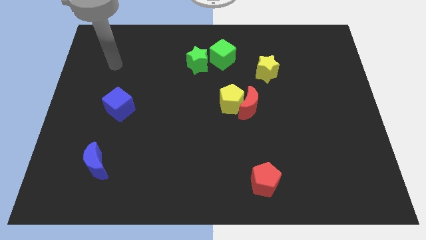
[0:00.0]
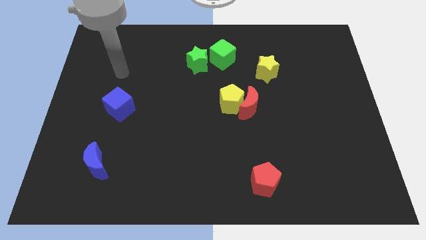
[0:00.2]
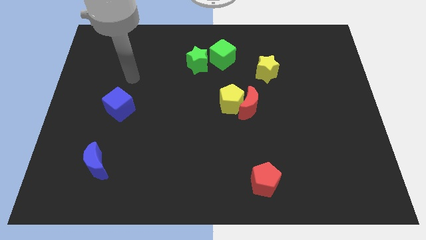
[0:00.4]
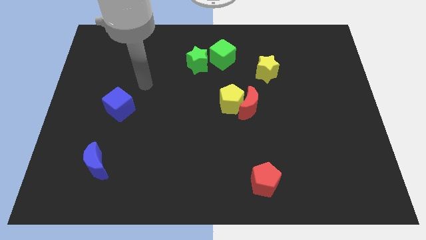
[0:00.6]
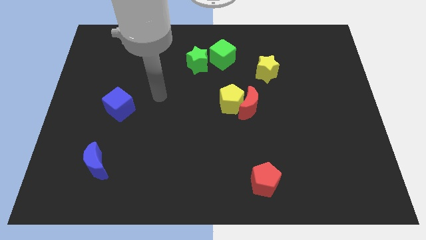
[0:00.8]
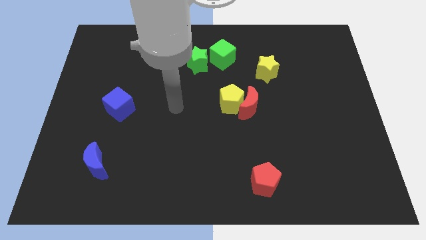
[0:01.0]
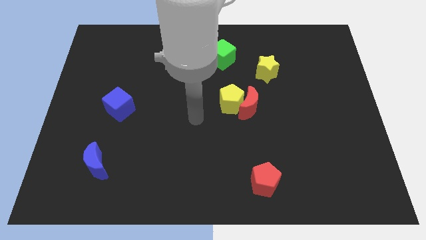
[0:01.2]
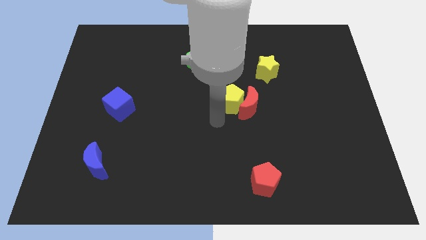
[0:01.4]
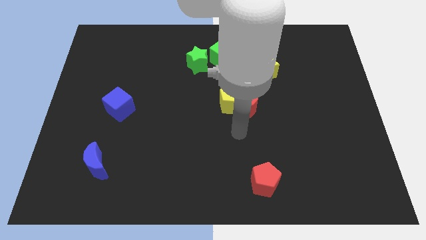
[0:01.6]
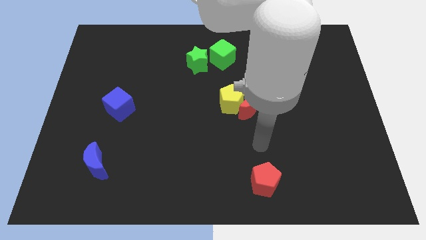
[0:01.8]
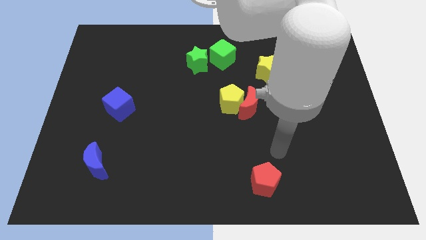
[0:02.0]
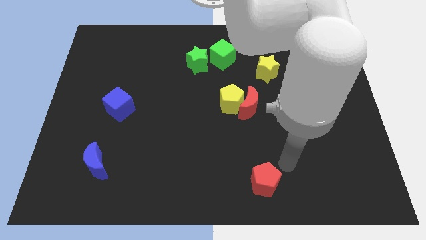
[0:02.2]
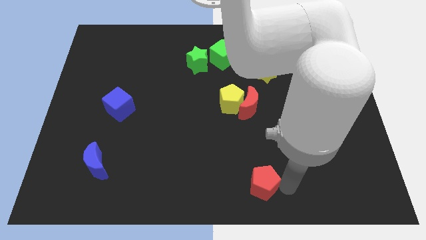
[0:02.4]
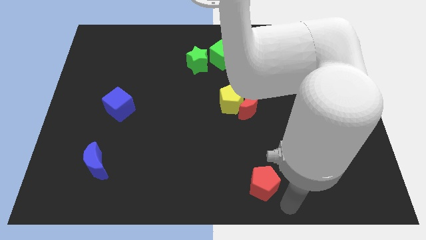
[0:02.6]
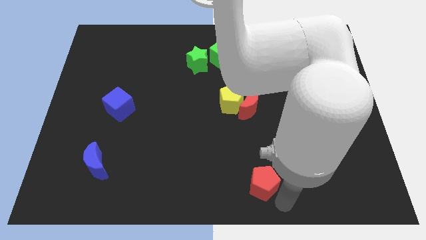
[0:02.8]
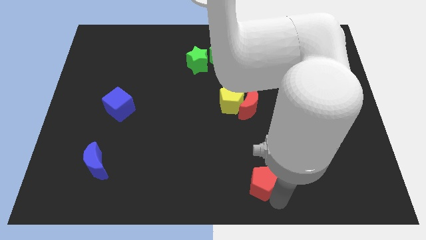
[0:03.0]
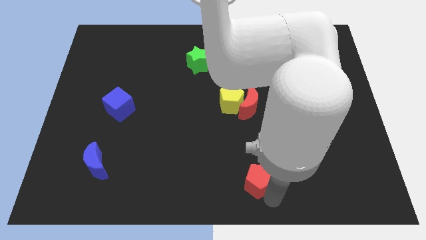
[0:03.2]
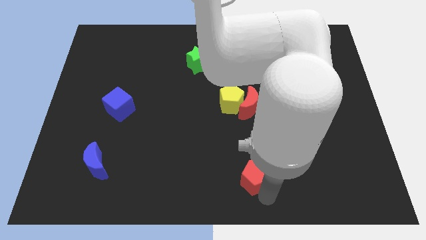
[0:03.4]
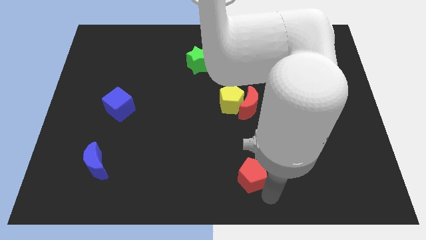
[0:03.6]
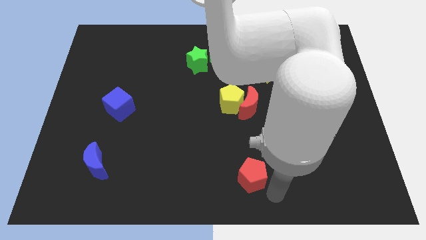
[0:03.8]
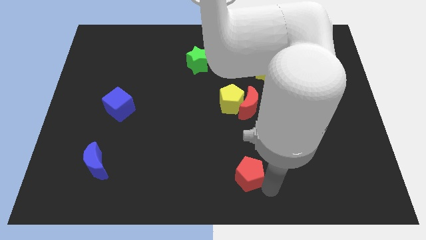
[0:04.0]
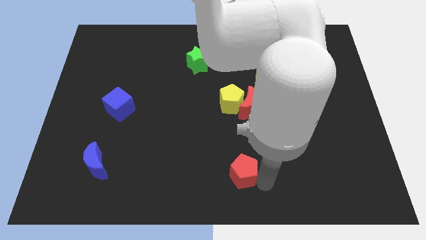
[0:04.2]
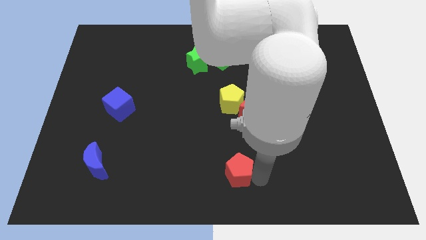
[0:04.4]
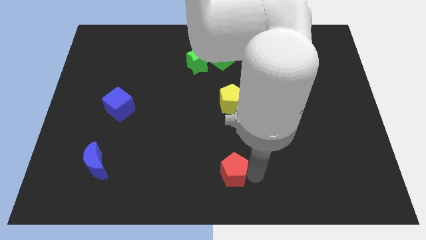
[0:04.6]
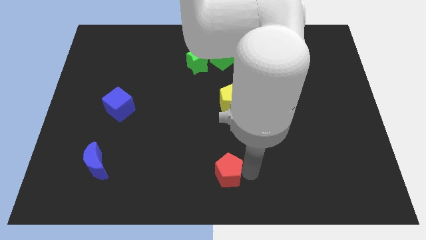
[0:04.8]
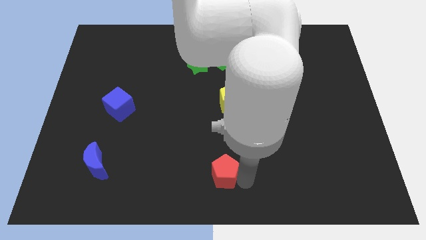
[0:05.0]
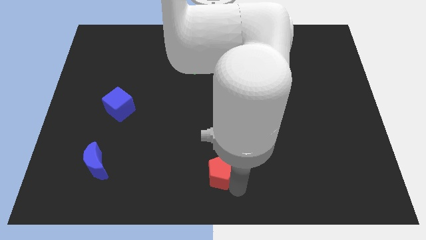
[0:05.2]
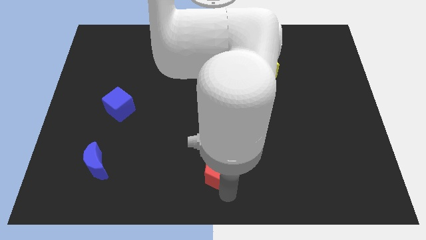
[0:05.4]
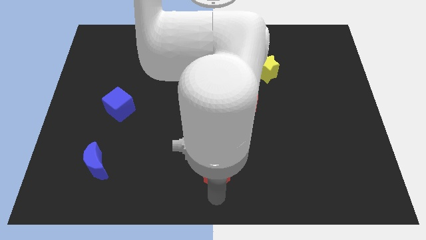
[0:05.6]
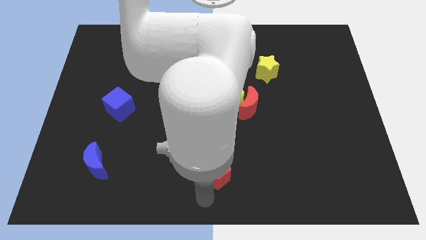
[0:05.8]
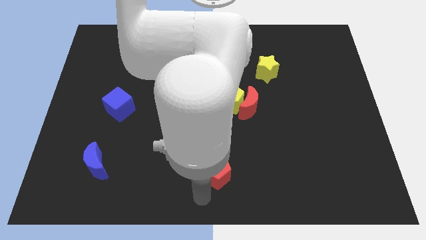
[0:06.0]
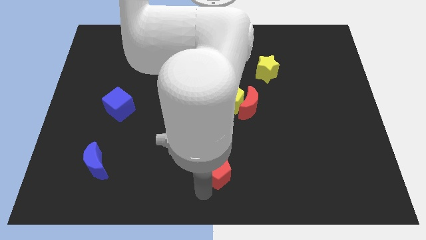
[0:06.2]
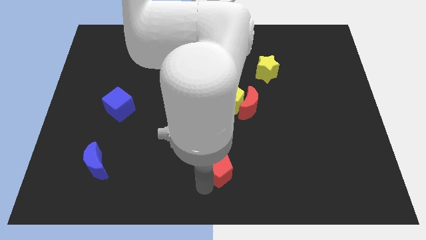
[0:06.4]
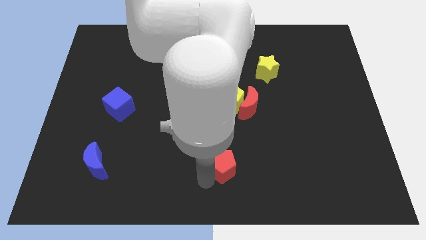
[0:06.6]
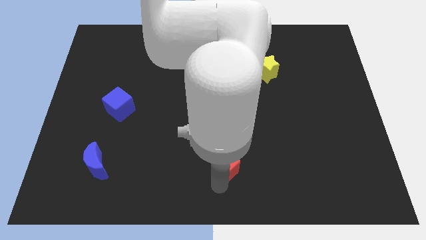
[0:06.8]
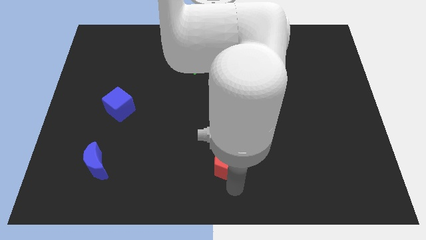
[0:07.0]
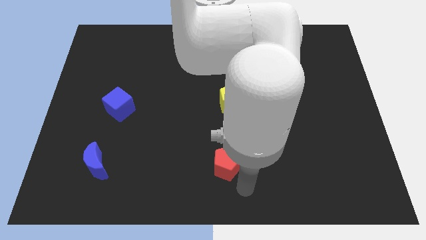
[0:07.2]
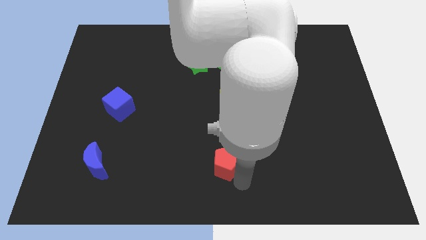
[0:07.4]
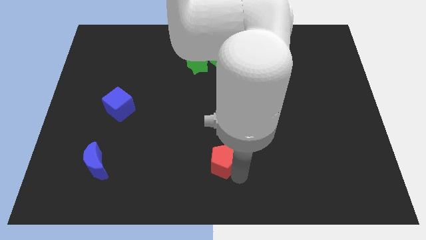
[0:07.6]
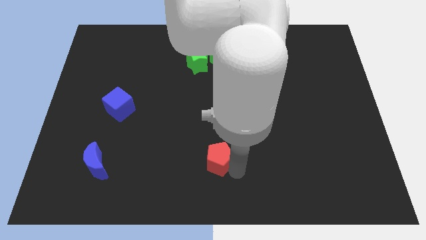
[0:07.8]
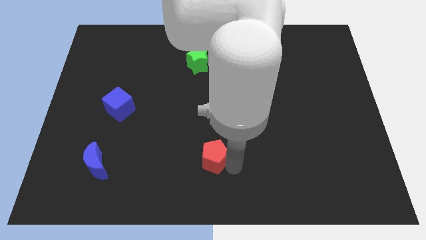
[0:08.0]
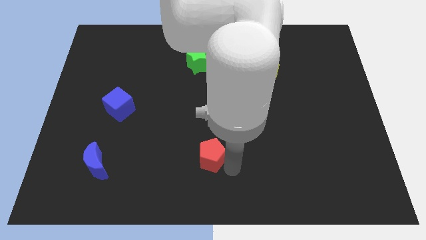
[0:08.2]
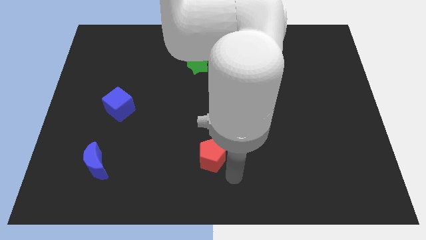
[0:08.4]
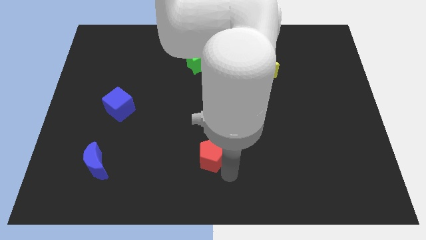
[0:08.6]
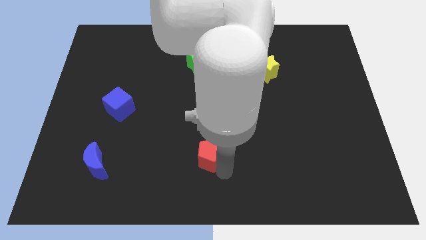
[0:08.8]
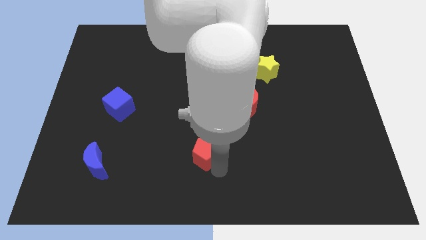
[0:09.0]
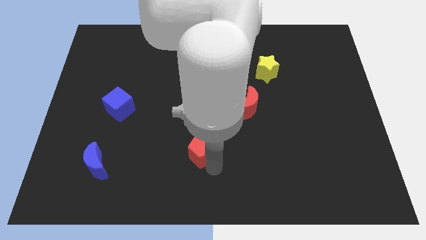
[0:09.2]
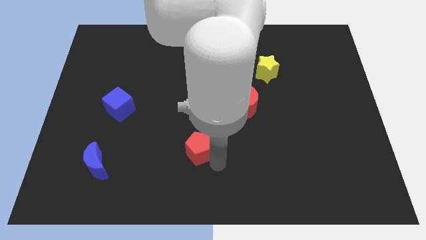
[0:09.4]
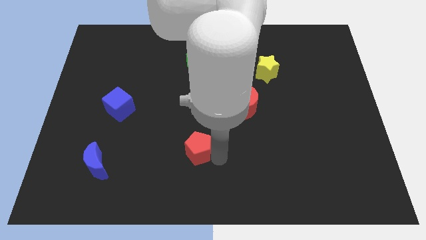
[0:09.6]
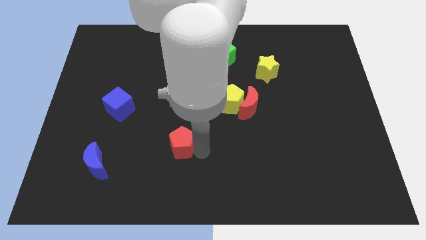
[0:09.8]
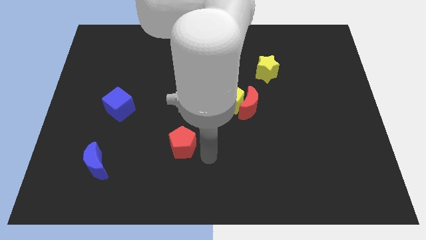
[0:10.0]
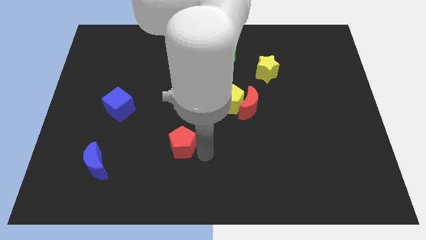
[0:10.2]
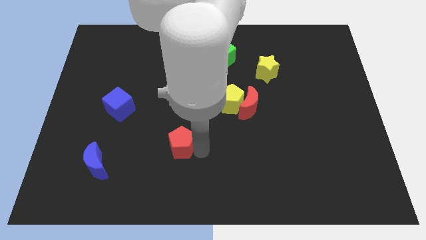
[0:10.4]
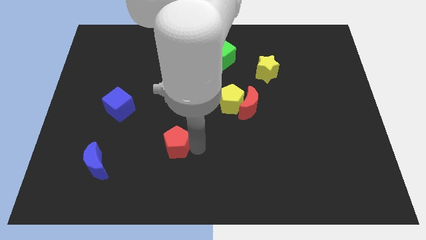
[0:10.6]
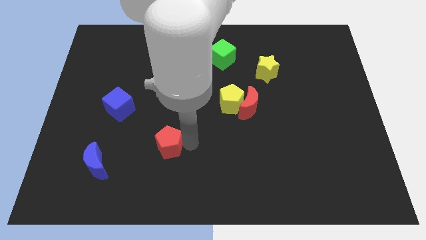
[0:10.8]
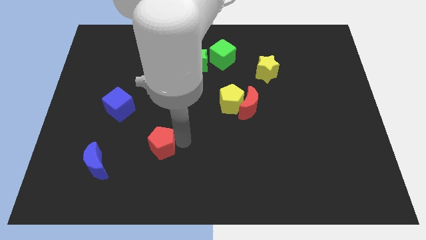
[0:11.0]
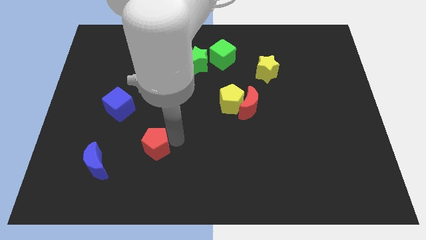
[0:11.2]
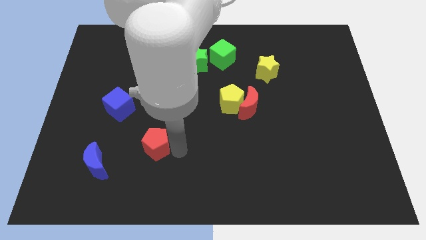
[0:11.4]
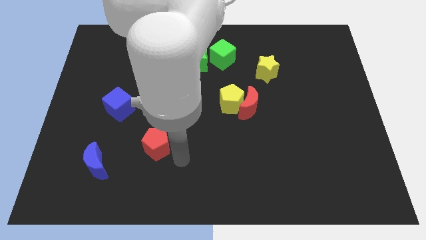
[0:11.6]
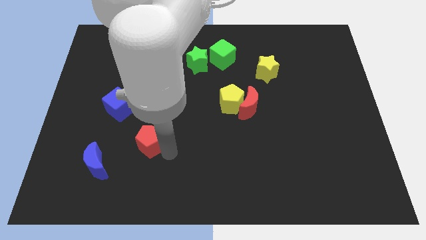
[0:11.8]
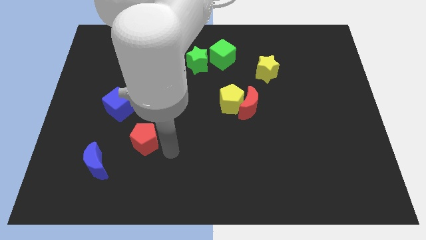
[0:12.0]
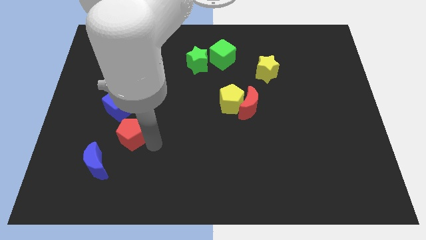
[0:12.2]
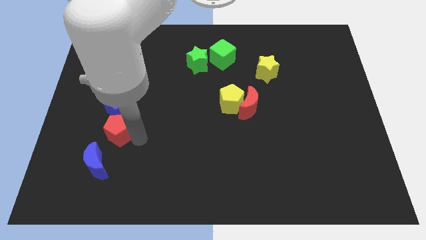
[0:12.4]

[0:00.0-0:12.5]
slide the red pentagon above the blue moon
